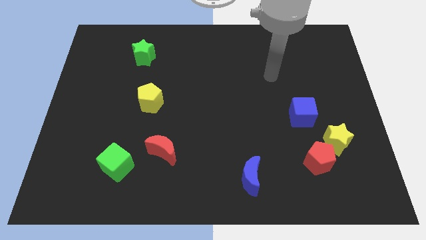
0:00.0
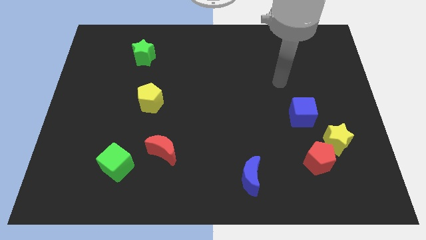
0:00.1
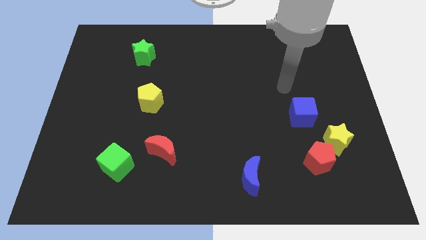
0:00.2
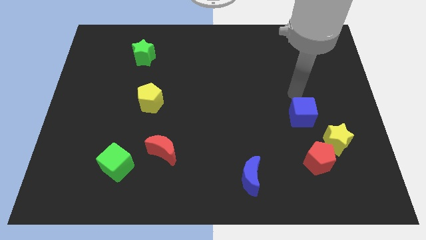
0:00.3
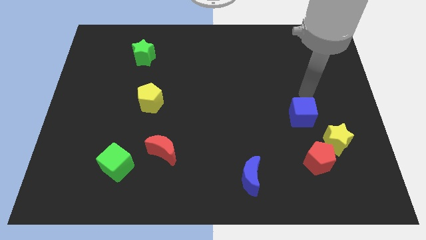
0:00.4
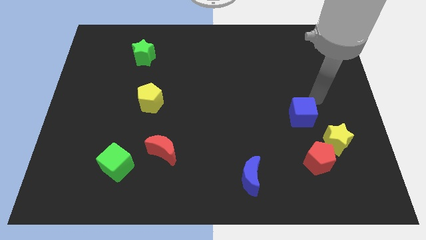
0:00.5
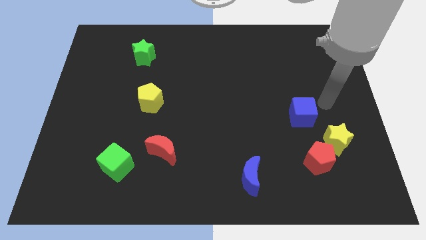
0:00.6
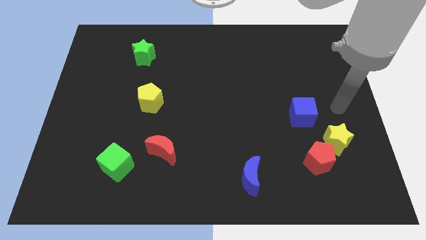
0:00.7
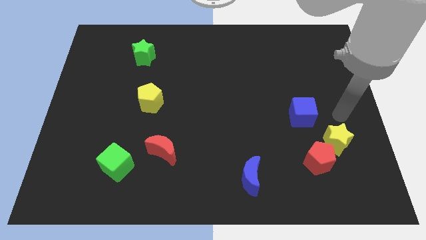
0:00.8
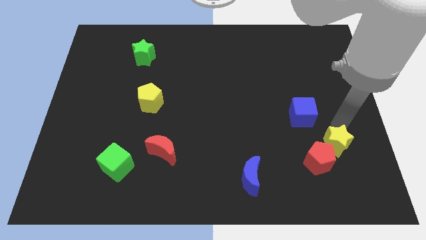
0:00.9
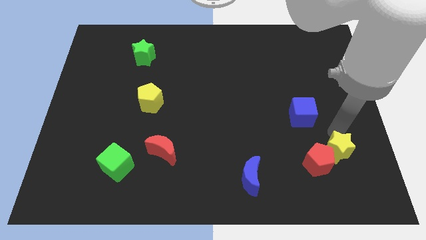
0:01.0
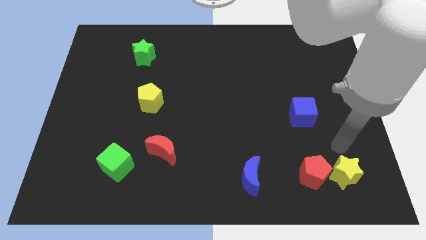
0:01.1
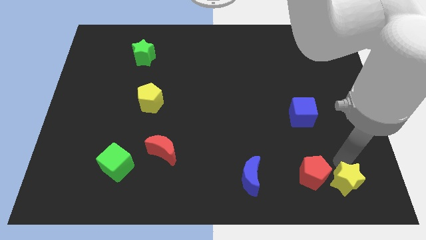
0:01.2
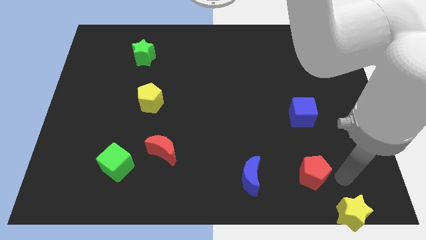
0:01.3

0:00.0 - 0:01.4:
separate the red pentagon from the yellow star

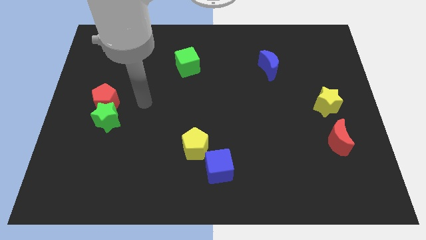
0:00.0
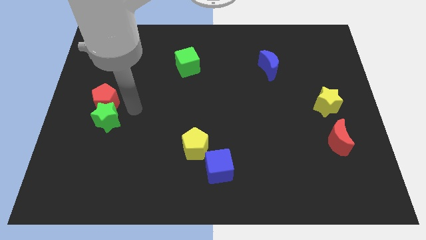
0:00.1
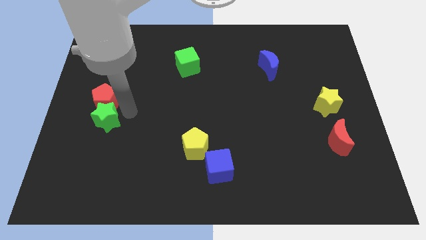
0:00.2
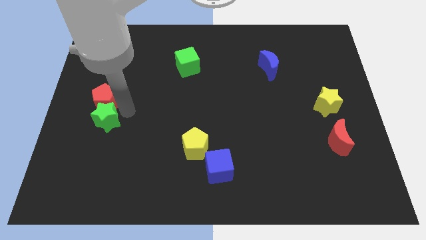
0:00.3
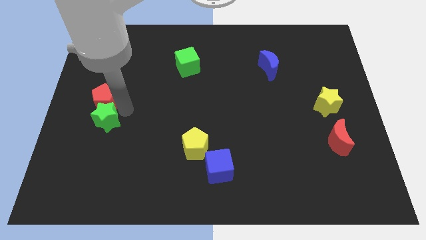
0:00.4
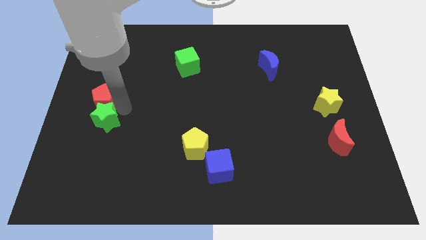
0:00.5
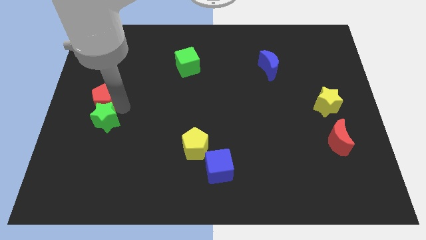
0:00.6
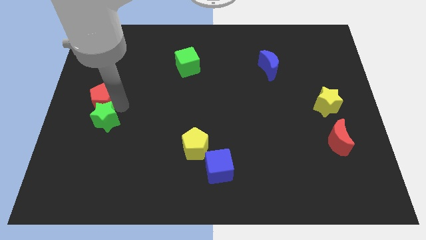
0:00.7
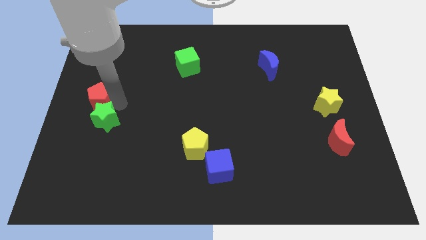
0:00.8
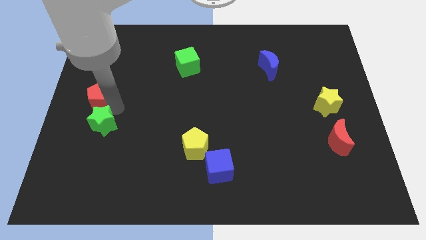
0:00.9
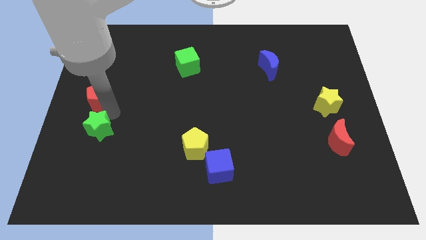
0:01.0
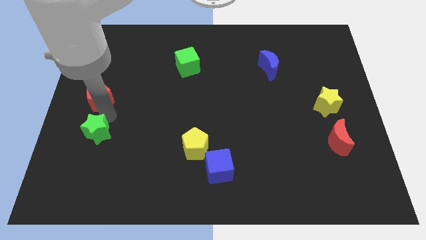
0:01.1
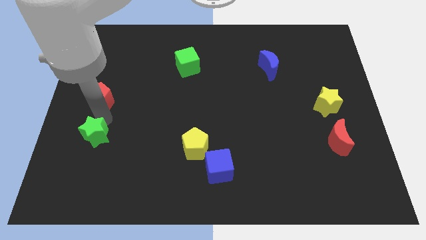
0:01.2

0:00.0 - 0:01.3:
move the red pentagon away from the green star

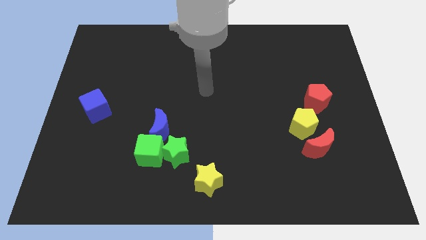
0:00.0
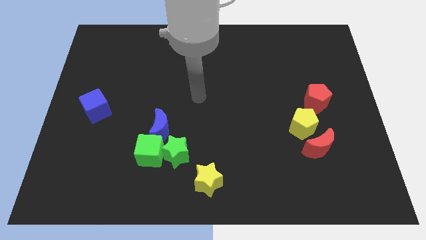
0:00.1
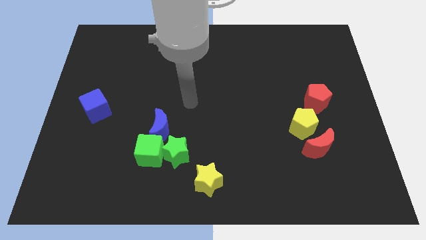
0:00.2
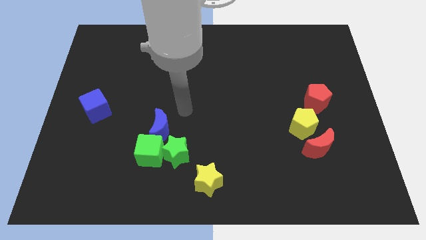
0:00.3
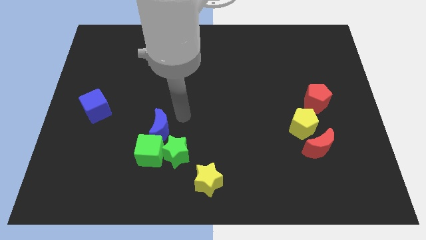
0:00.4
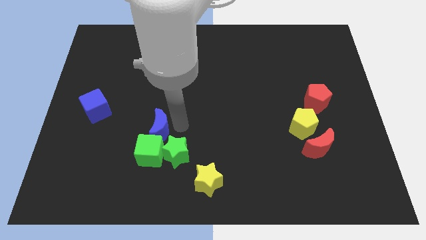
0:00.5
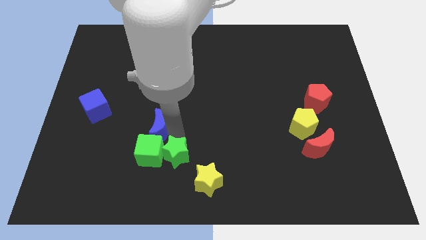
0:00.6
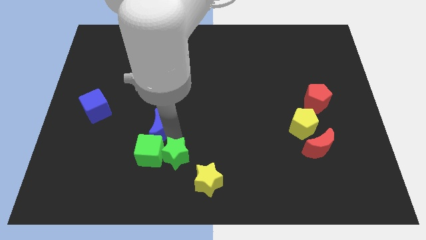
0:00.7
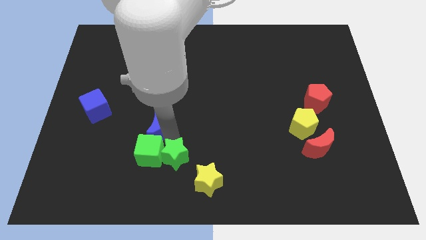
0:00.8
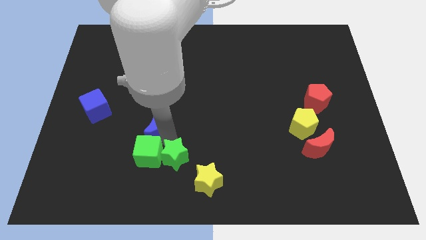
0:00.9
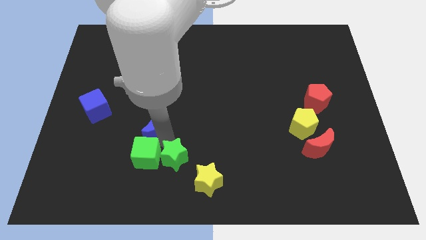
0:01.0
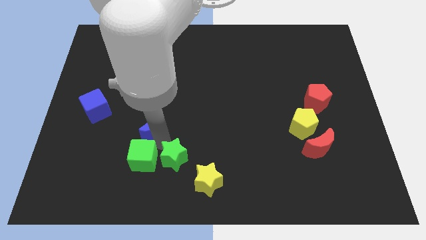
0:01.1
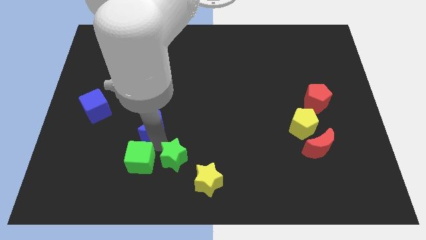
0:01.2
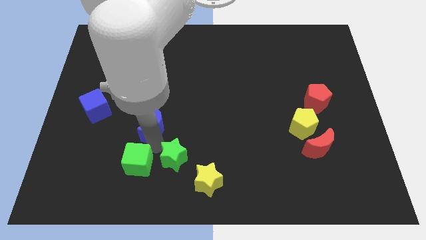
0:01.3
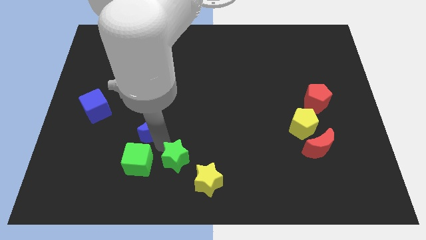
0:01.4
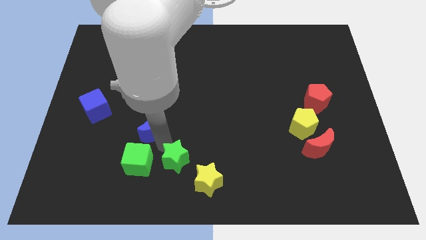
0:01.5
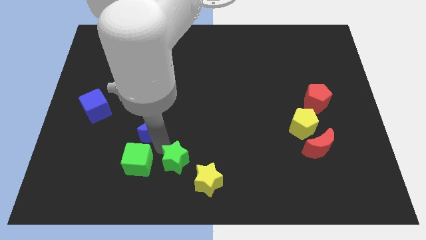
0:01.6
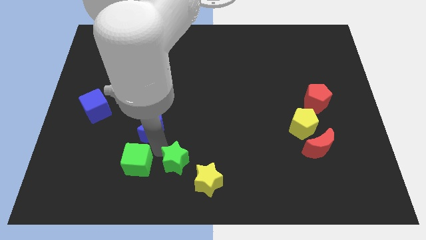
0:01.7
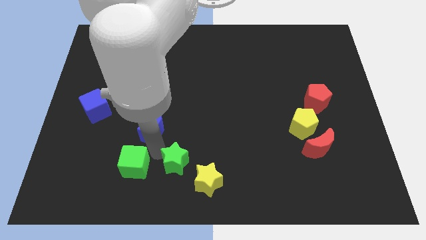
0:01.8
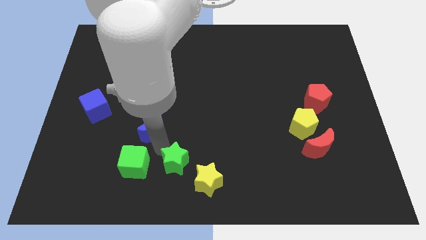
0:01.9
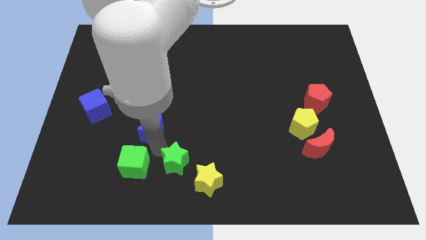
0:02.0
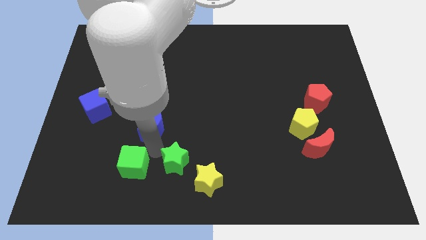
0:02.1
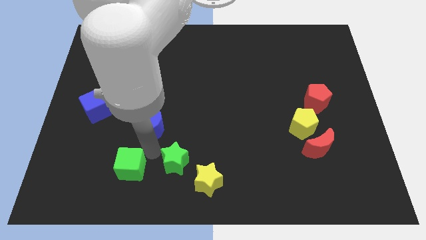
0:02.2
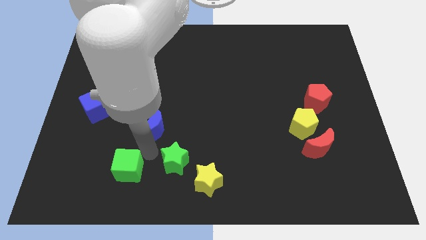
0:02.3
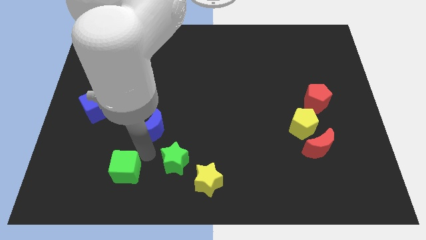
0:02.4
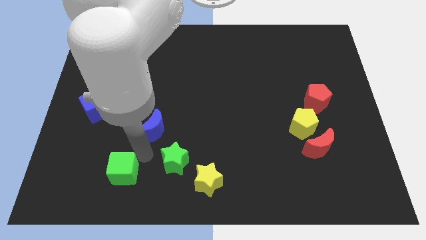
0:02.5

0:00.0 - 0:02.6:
separate the green cube from the green star and blue moon

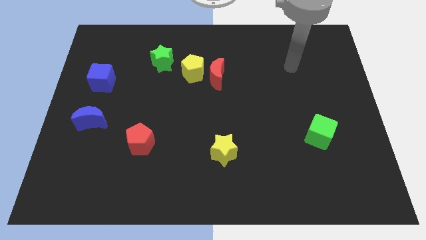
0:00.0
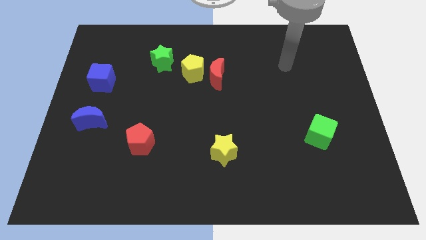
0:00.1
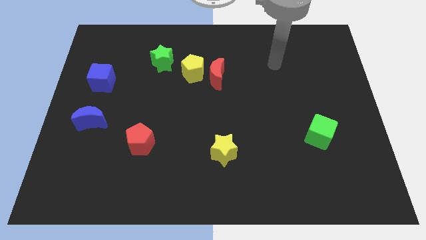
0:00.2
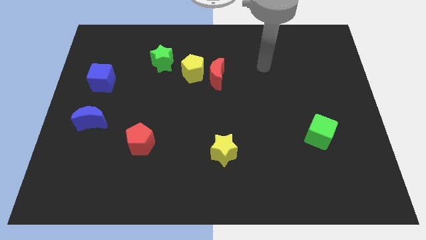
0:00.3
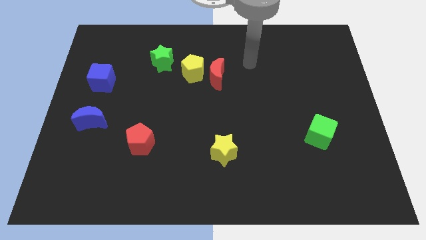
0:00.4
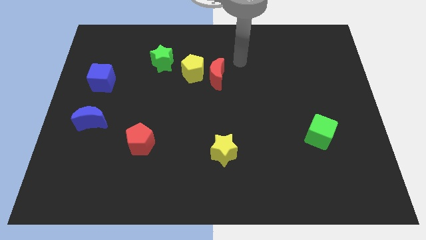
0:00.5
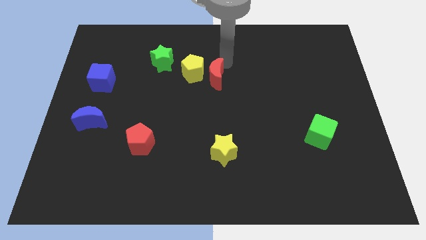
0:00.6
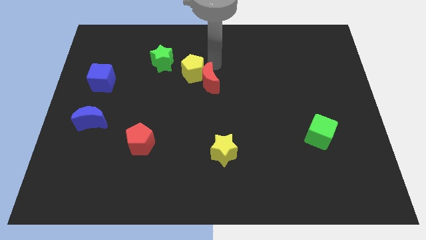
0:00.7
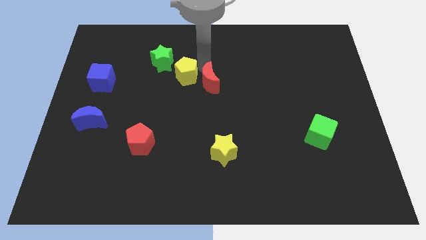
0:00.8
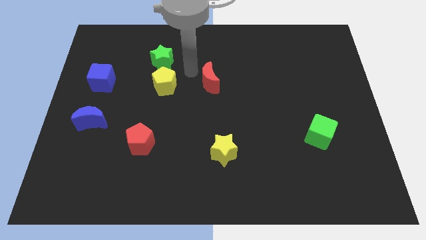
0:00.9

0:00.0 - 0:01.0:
separate the red moon from the yellow pentagon

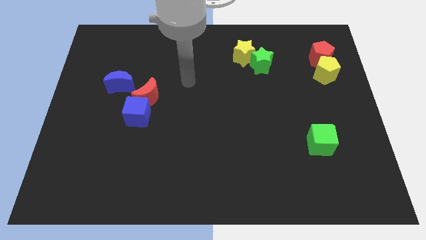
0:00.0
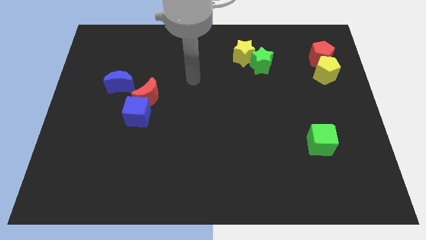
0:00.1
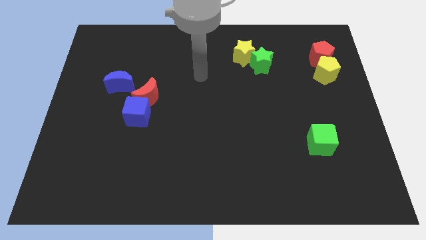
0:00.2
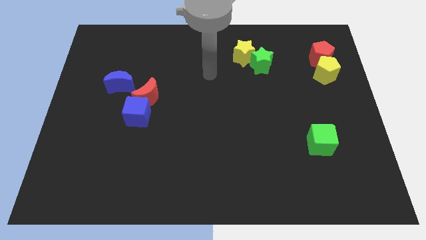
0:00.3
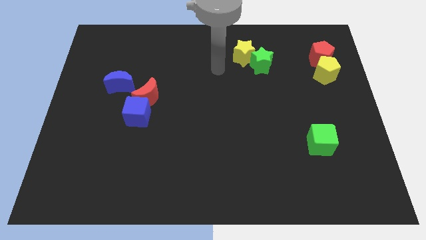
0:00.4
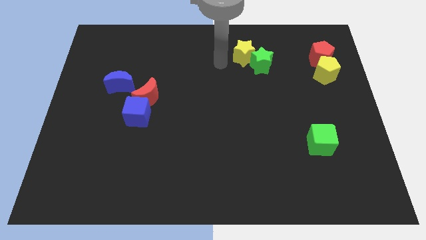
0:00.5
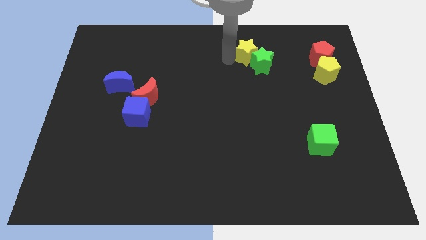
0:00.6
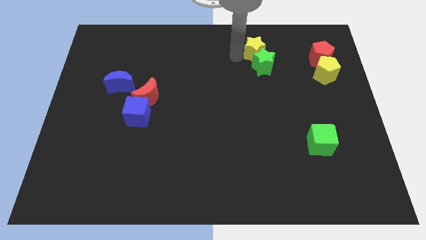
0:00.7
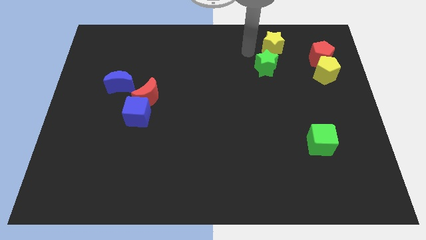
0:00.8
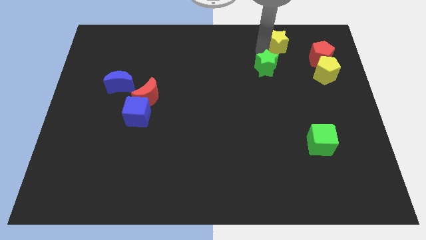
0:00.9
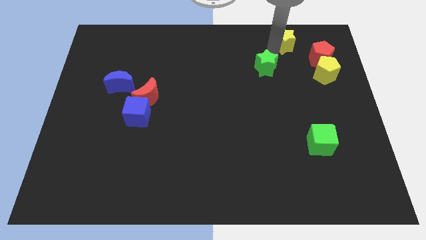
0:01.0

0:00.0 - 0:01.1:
move the green star away from the yellow star

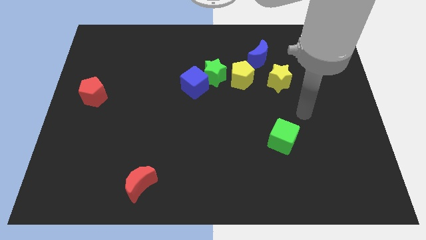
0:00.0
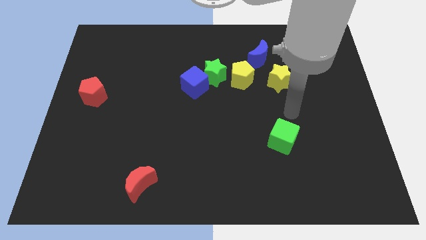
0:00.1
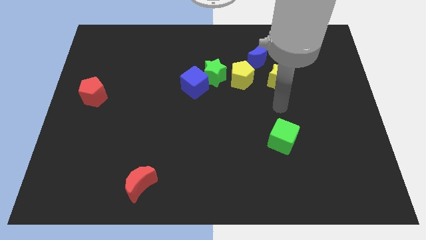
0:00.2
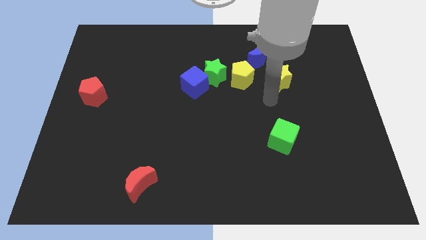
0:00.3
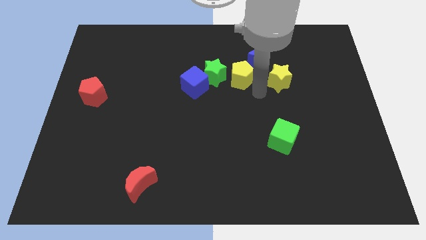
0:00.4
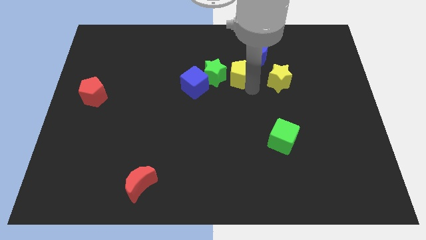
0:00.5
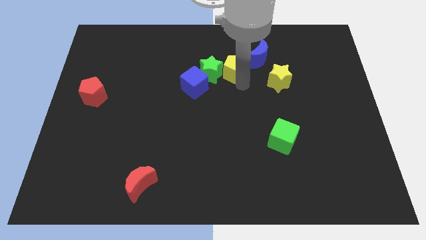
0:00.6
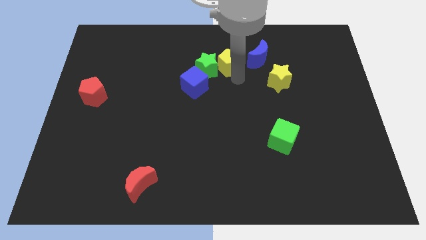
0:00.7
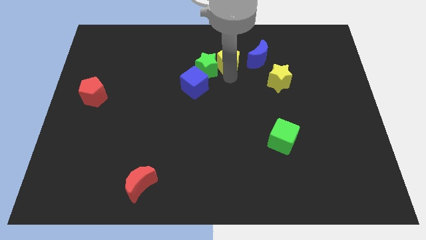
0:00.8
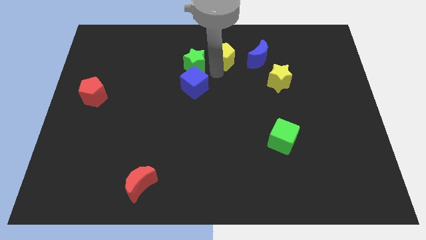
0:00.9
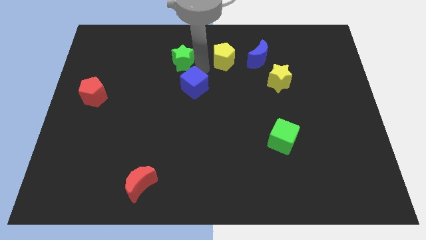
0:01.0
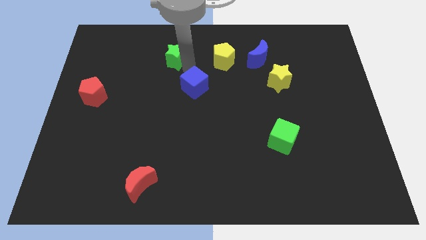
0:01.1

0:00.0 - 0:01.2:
move the blue cube away from the green star

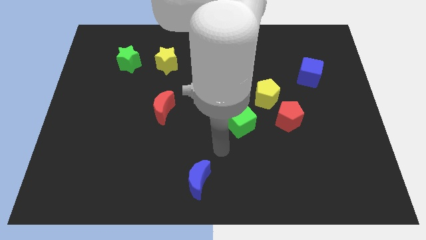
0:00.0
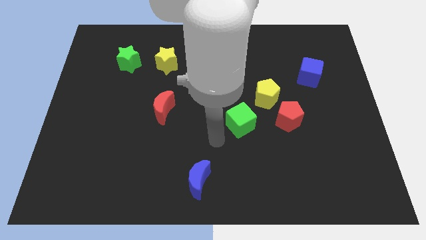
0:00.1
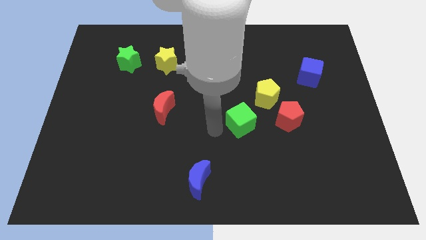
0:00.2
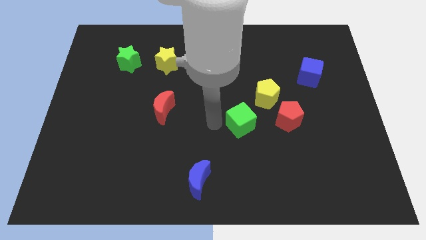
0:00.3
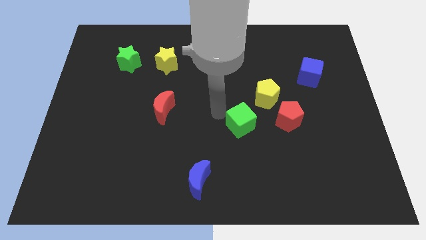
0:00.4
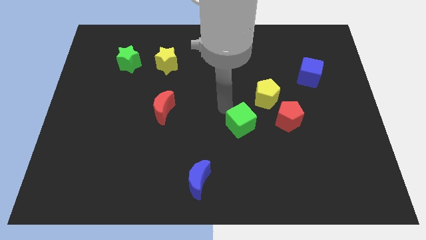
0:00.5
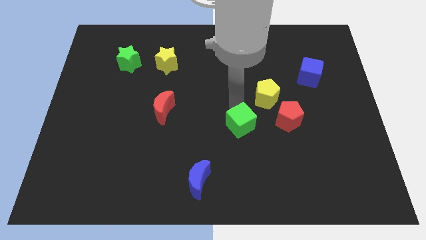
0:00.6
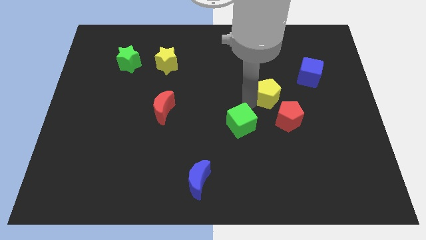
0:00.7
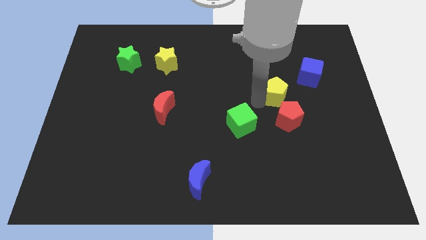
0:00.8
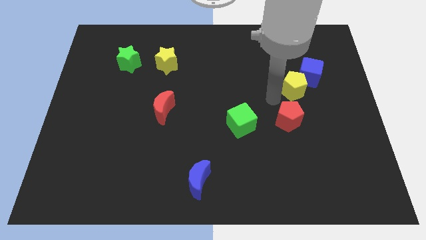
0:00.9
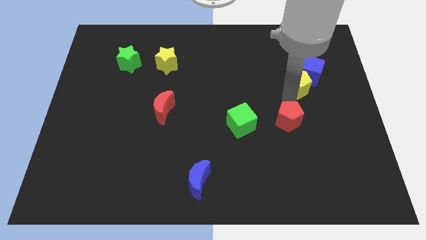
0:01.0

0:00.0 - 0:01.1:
pull the red pentagon apart from the yellow pentagon
